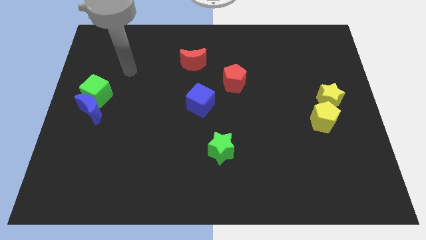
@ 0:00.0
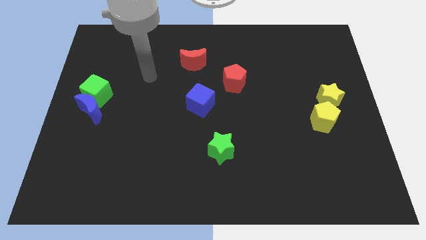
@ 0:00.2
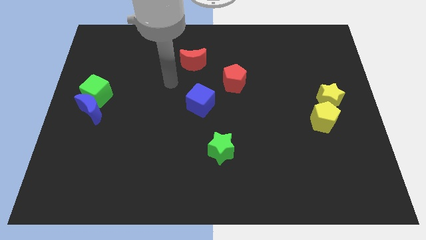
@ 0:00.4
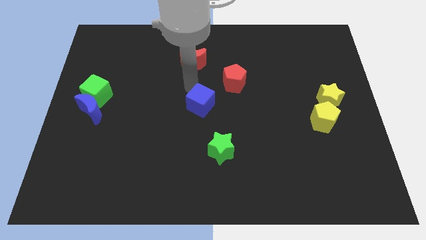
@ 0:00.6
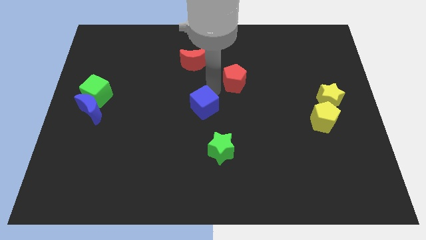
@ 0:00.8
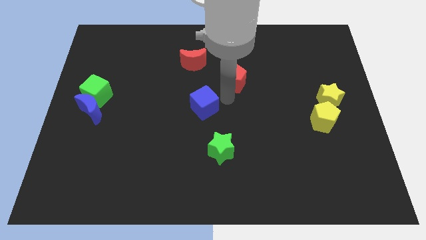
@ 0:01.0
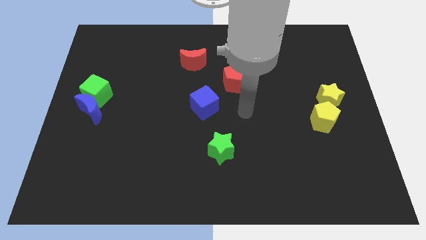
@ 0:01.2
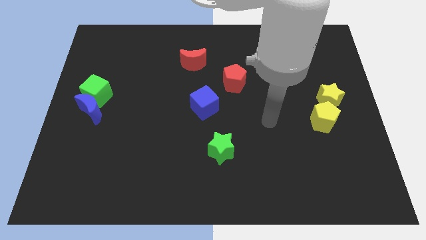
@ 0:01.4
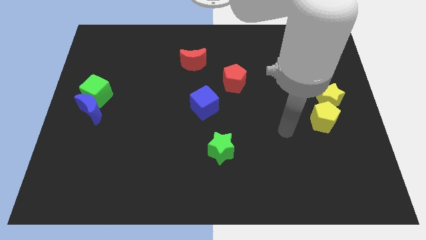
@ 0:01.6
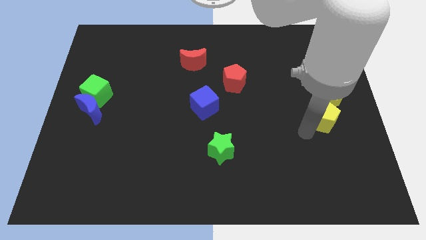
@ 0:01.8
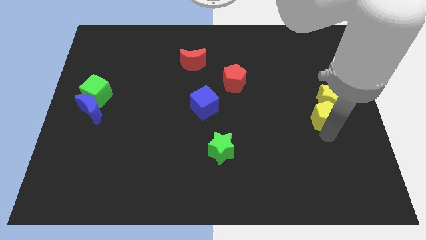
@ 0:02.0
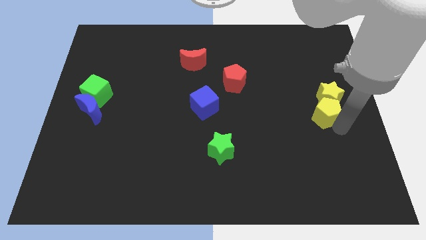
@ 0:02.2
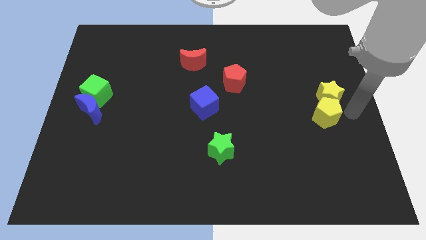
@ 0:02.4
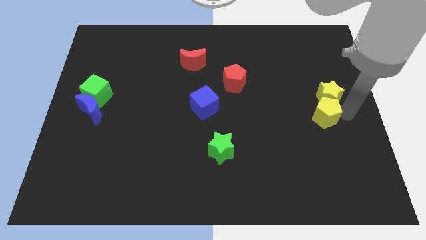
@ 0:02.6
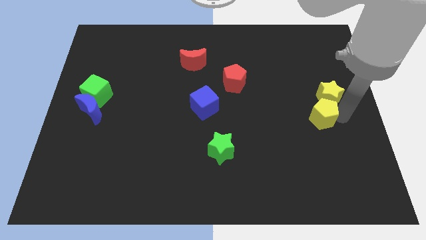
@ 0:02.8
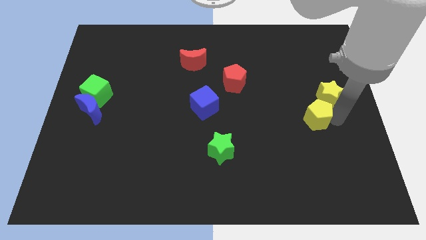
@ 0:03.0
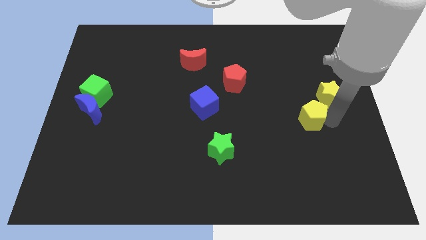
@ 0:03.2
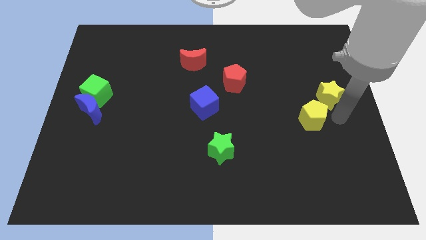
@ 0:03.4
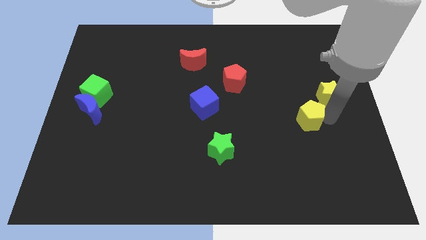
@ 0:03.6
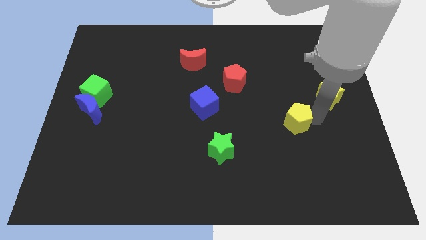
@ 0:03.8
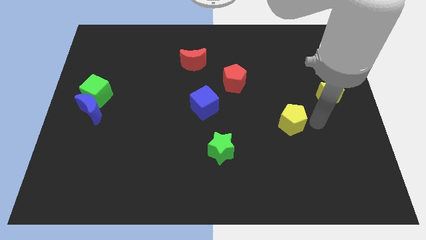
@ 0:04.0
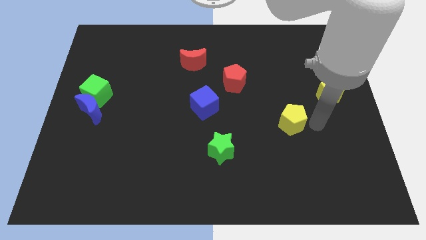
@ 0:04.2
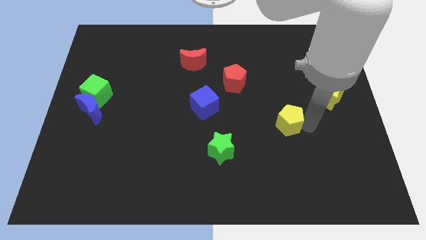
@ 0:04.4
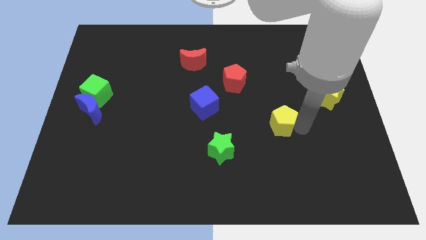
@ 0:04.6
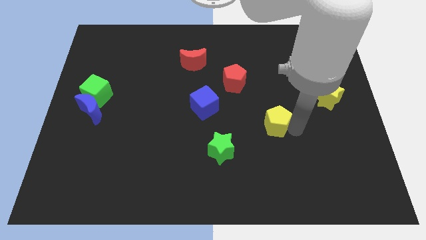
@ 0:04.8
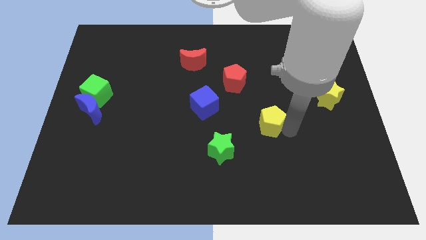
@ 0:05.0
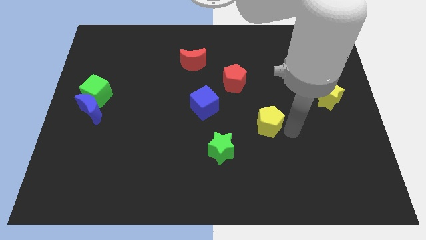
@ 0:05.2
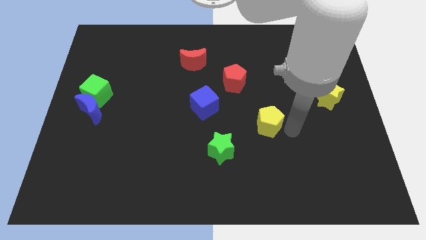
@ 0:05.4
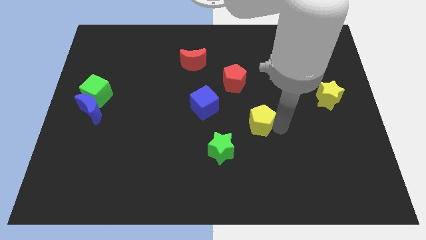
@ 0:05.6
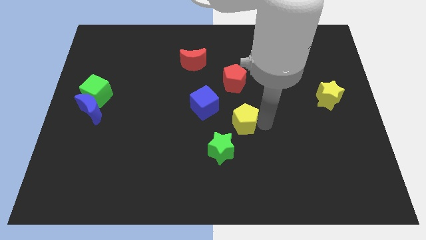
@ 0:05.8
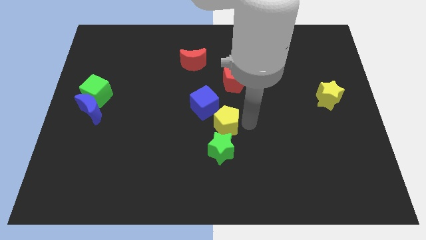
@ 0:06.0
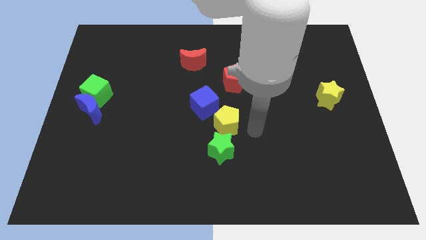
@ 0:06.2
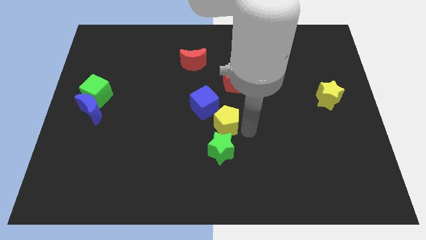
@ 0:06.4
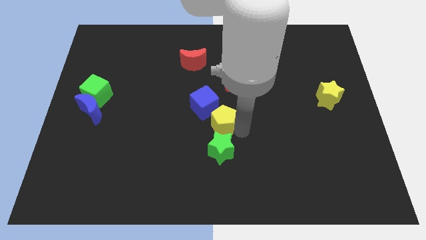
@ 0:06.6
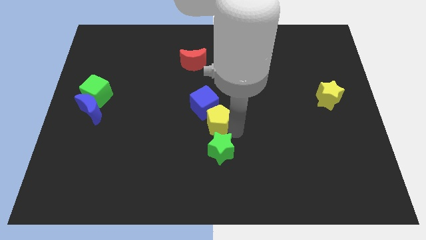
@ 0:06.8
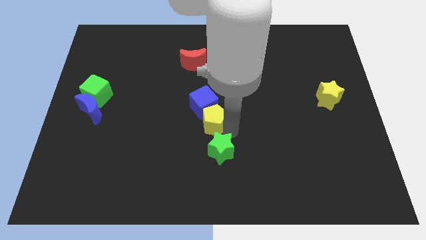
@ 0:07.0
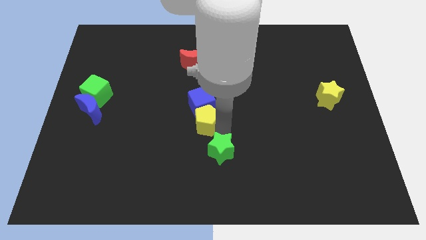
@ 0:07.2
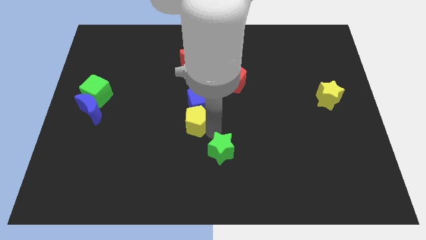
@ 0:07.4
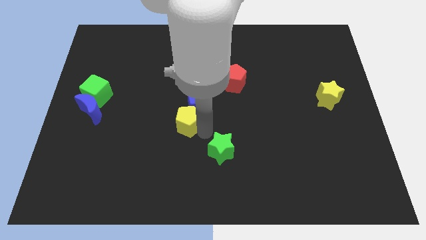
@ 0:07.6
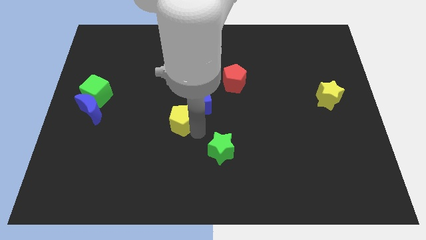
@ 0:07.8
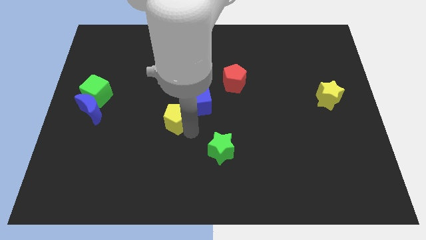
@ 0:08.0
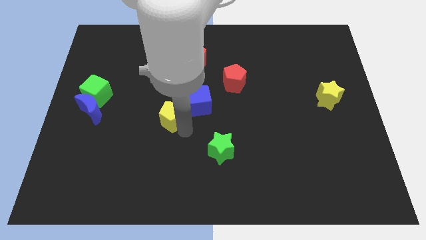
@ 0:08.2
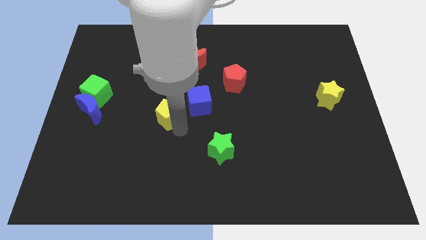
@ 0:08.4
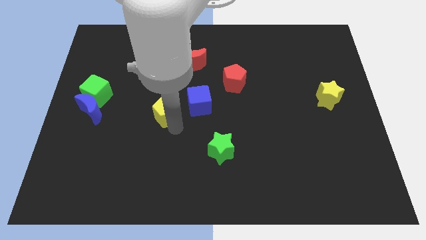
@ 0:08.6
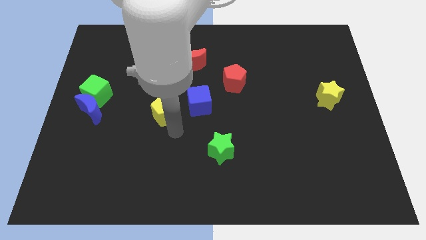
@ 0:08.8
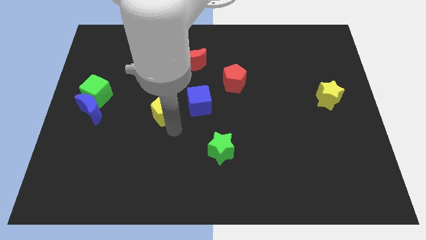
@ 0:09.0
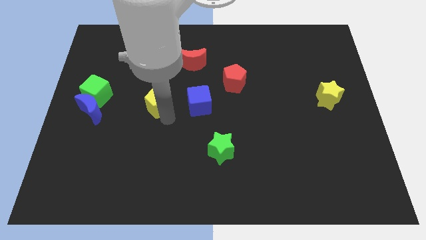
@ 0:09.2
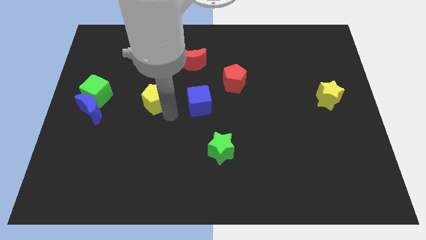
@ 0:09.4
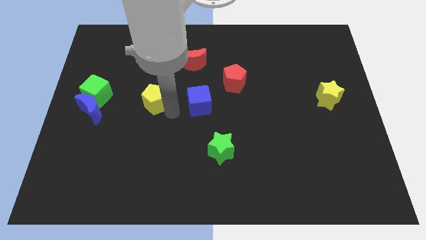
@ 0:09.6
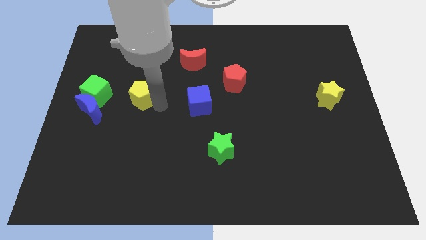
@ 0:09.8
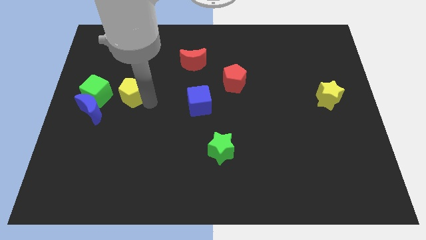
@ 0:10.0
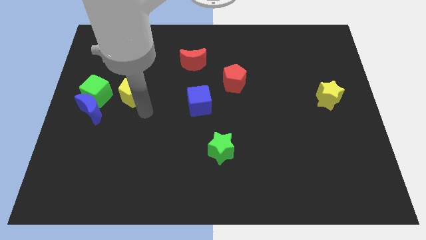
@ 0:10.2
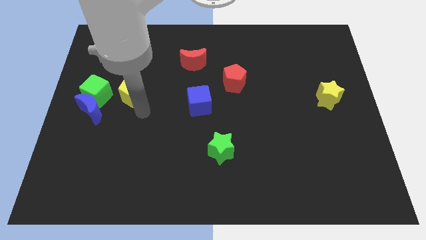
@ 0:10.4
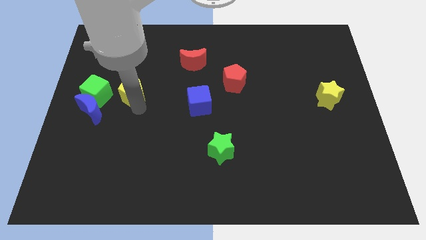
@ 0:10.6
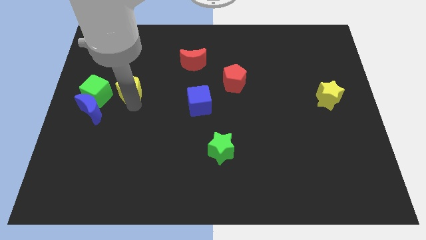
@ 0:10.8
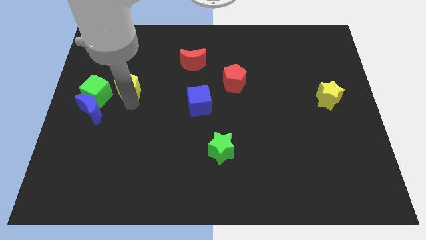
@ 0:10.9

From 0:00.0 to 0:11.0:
move the yellow pentagon diagonally up and to the right of the green cube

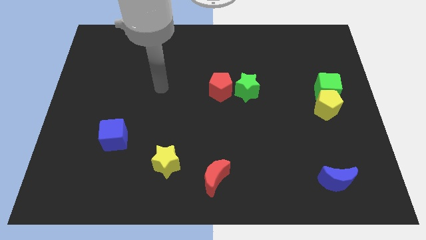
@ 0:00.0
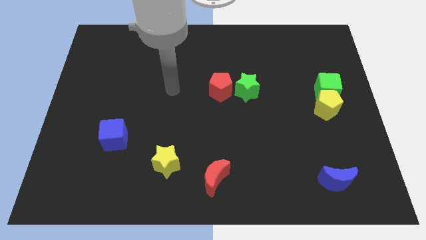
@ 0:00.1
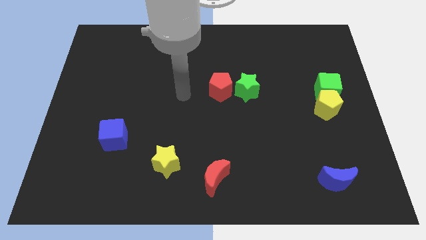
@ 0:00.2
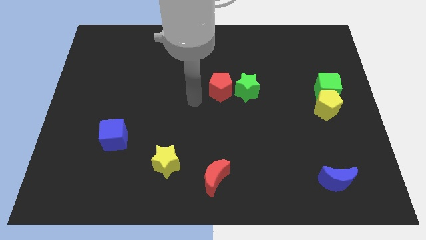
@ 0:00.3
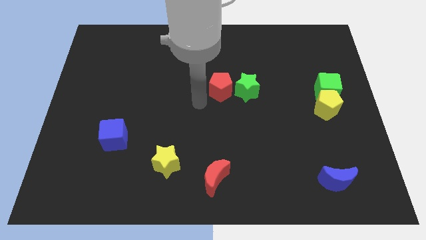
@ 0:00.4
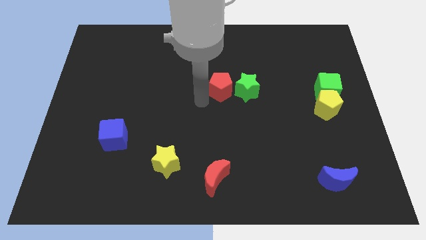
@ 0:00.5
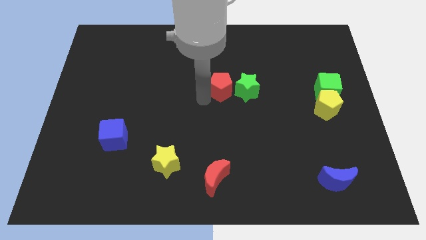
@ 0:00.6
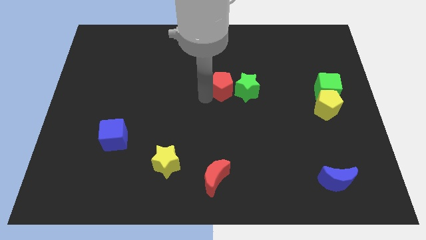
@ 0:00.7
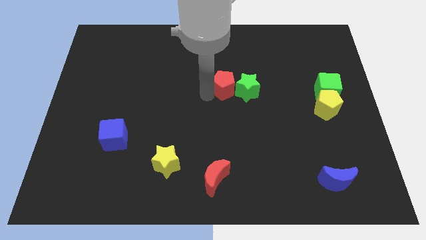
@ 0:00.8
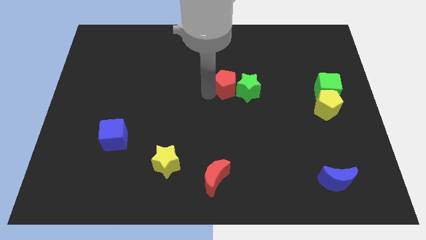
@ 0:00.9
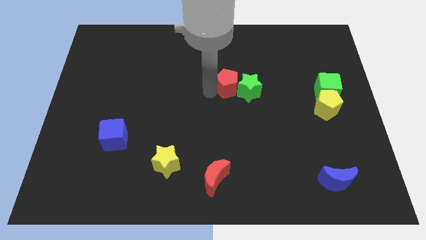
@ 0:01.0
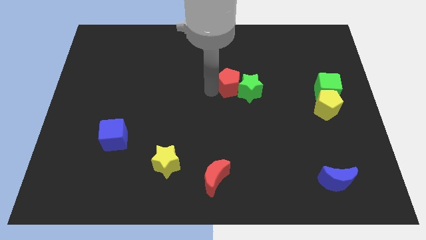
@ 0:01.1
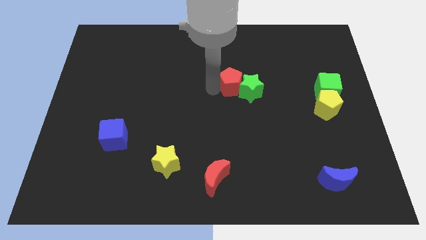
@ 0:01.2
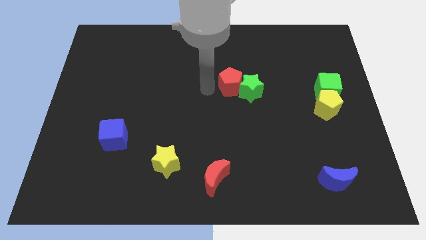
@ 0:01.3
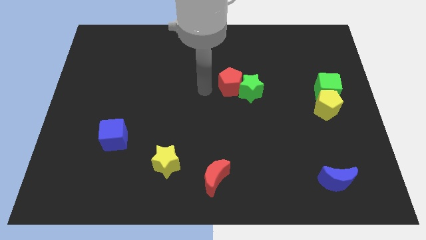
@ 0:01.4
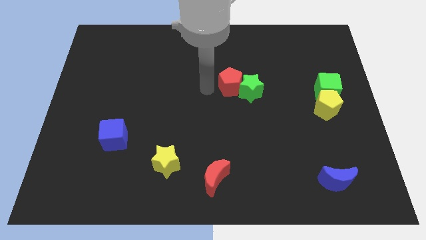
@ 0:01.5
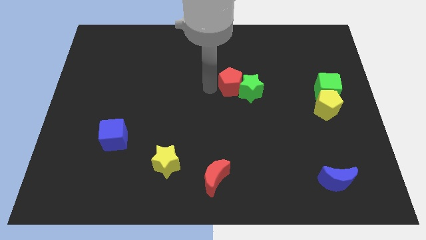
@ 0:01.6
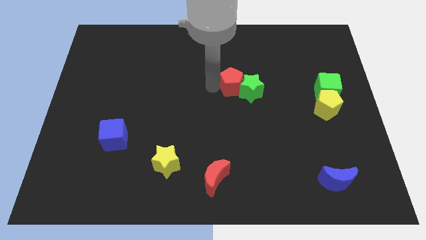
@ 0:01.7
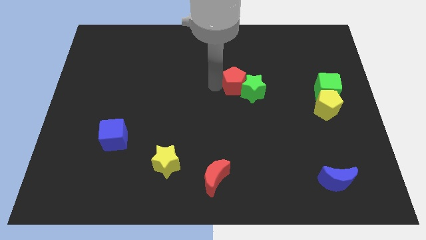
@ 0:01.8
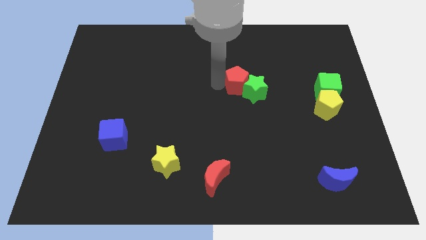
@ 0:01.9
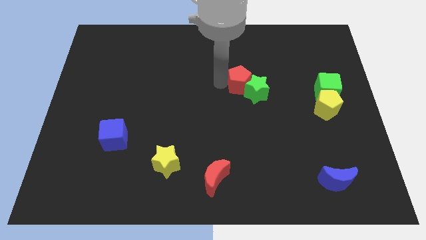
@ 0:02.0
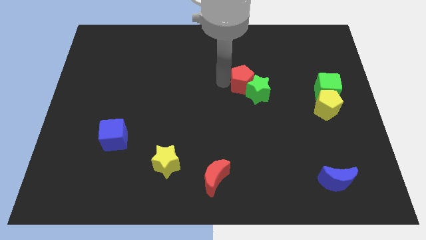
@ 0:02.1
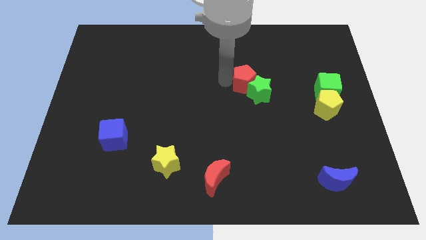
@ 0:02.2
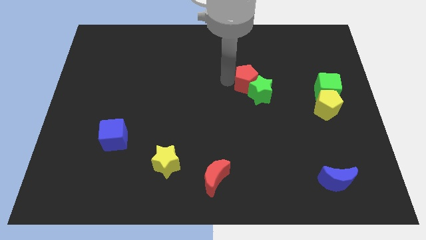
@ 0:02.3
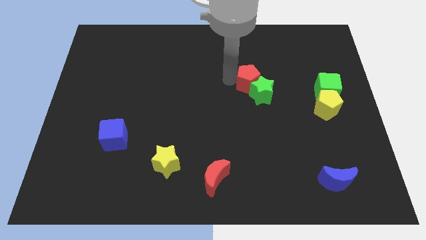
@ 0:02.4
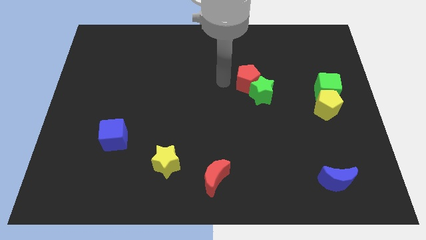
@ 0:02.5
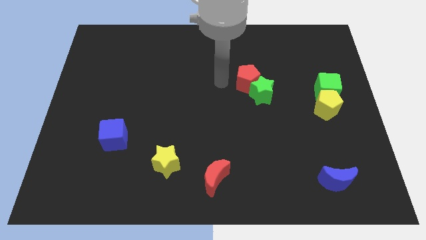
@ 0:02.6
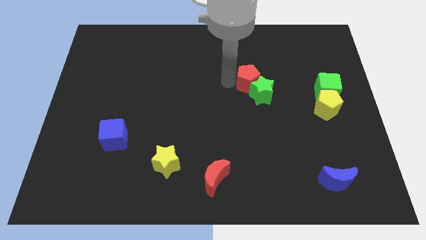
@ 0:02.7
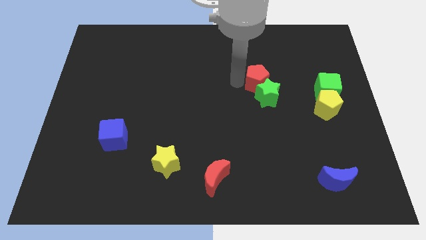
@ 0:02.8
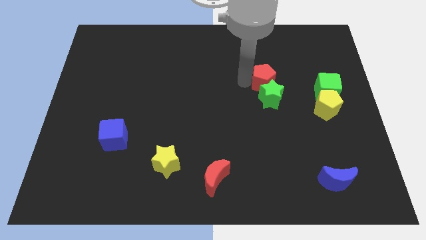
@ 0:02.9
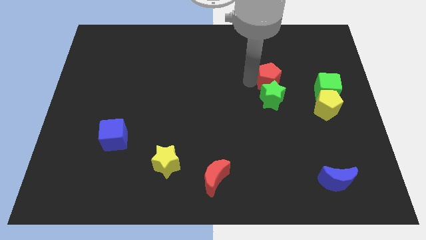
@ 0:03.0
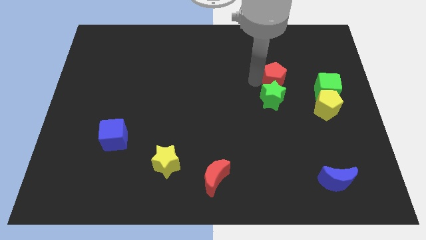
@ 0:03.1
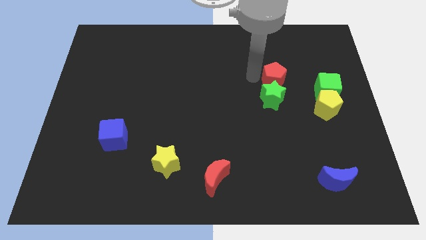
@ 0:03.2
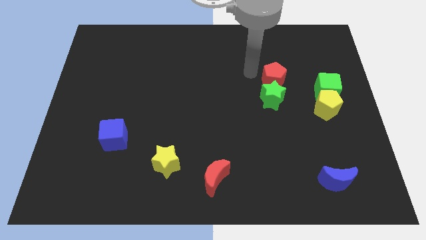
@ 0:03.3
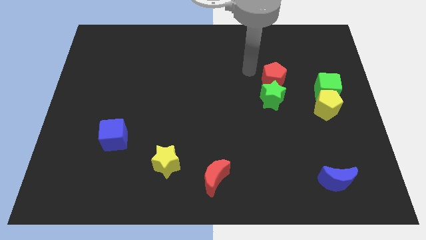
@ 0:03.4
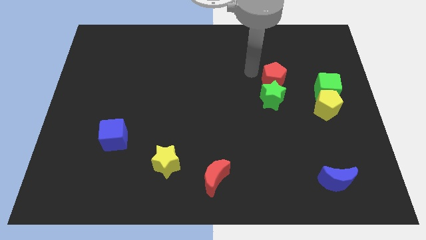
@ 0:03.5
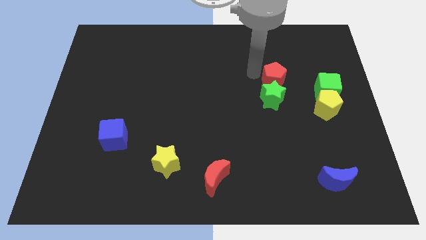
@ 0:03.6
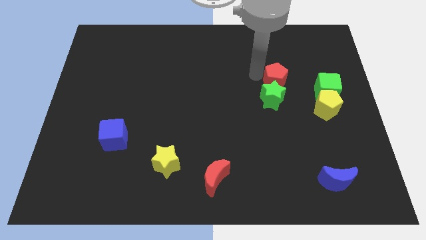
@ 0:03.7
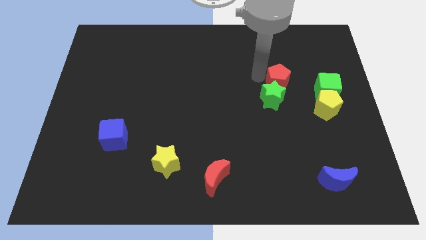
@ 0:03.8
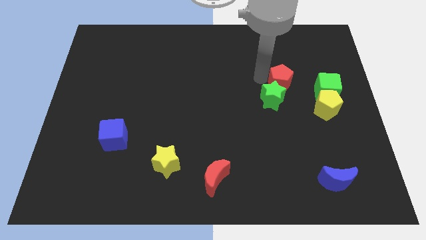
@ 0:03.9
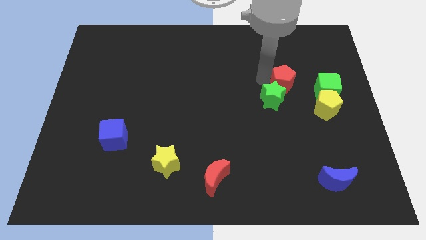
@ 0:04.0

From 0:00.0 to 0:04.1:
push the red pentagon to the top left of the yellow pentagon
